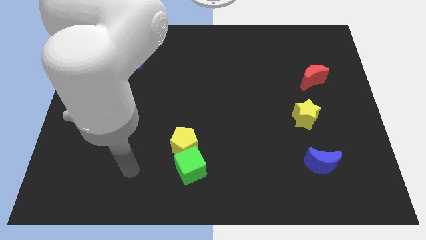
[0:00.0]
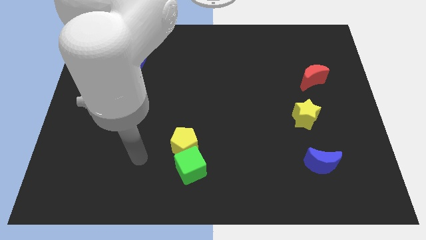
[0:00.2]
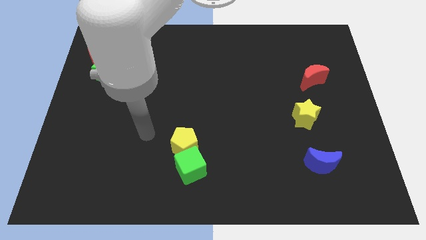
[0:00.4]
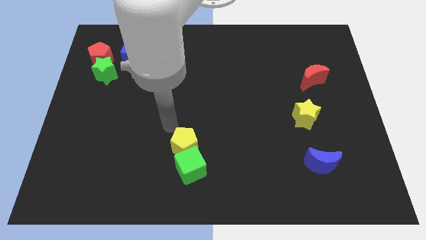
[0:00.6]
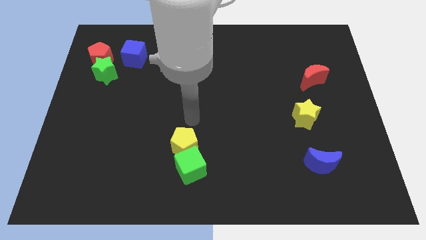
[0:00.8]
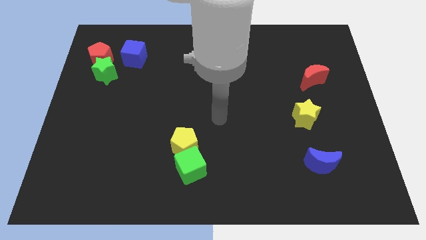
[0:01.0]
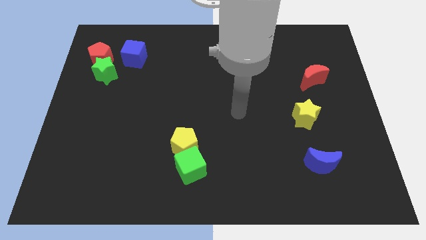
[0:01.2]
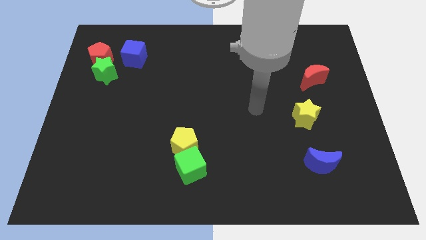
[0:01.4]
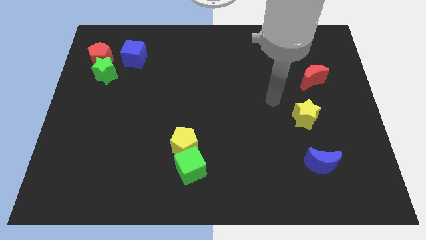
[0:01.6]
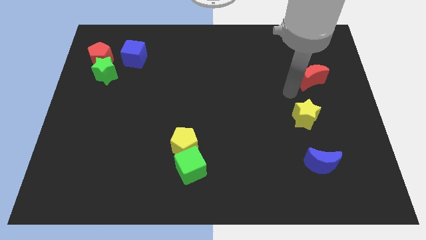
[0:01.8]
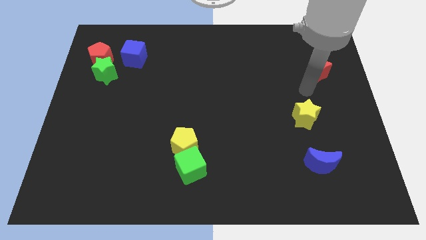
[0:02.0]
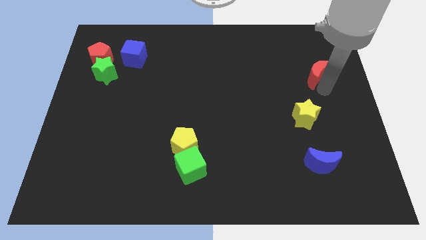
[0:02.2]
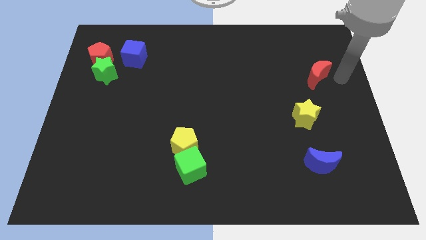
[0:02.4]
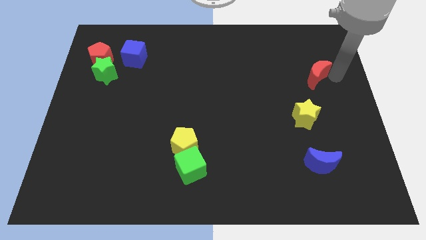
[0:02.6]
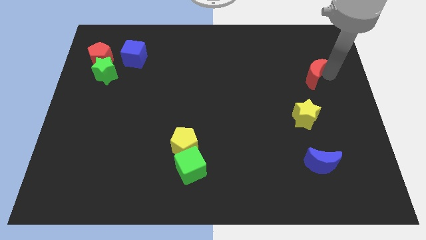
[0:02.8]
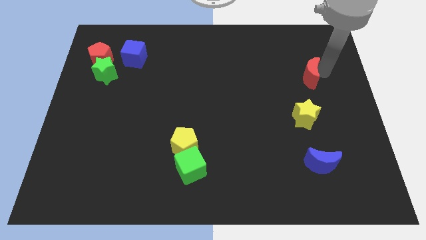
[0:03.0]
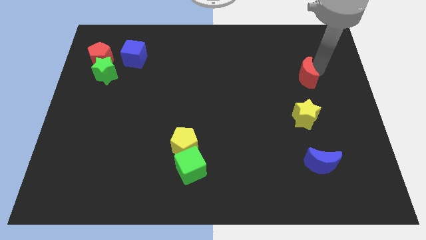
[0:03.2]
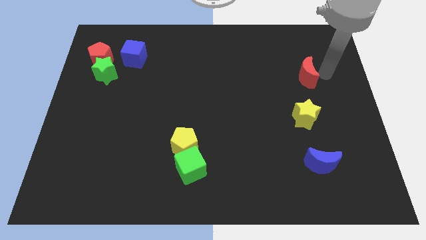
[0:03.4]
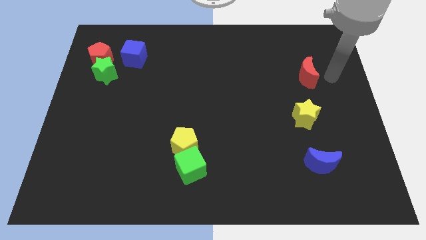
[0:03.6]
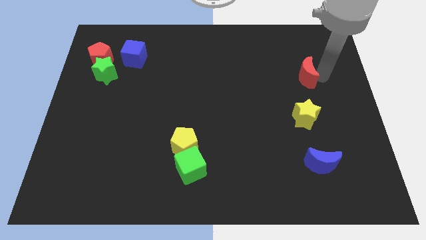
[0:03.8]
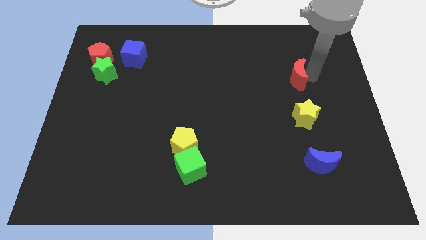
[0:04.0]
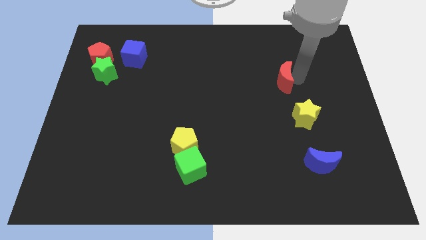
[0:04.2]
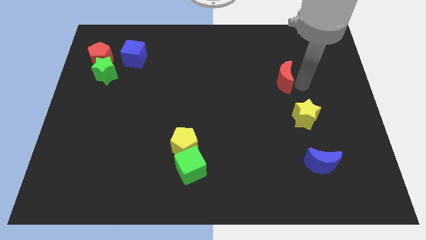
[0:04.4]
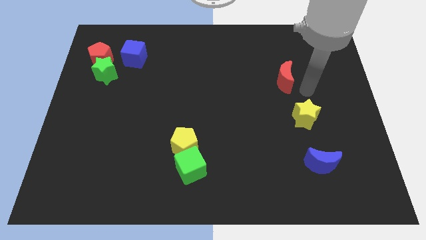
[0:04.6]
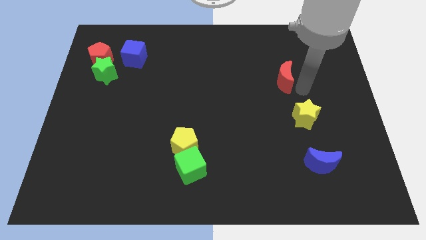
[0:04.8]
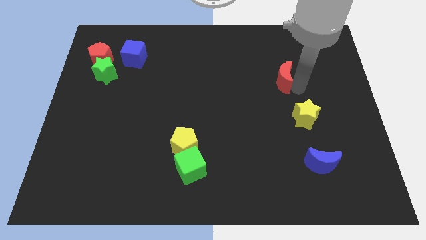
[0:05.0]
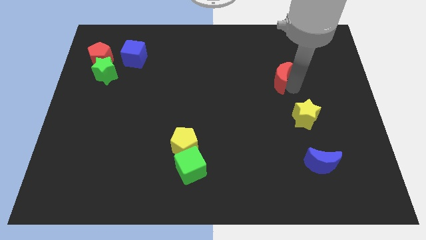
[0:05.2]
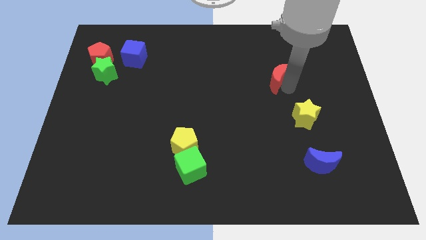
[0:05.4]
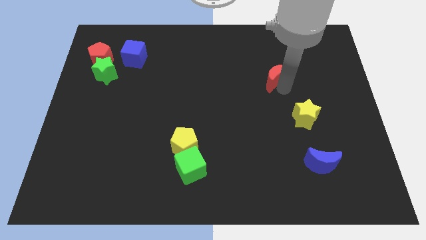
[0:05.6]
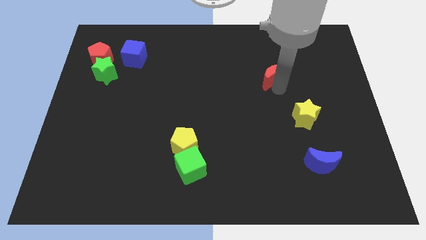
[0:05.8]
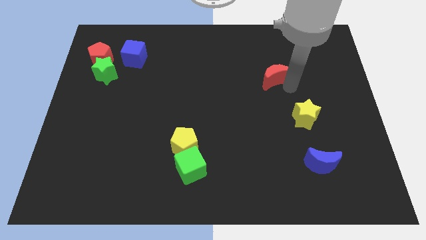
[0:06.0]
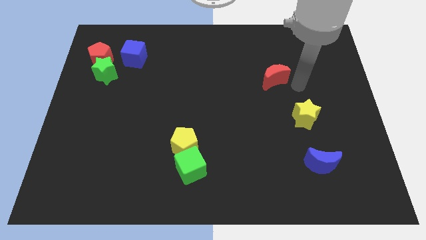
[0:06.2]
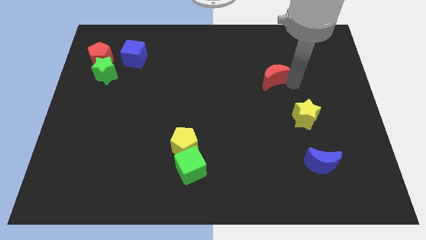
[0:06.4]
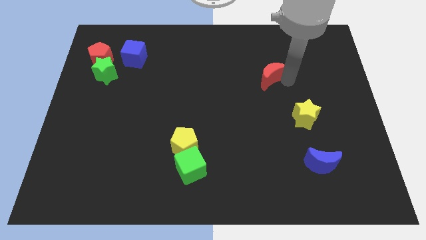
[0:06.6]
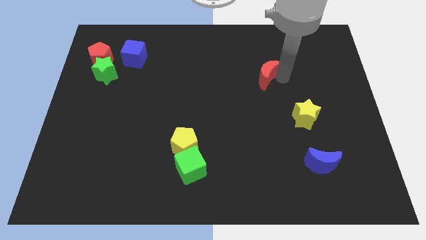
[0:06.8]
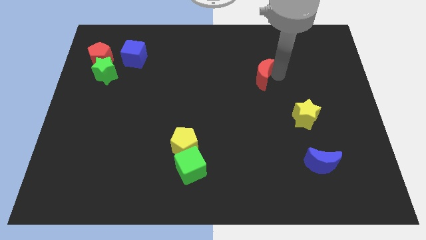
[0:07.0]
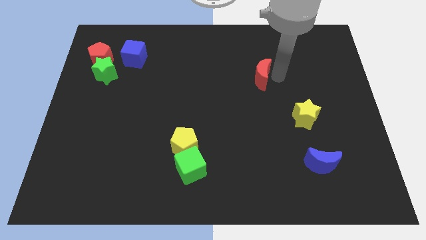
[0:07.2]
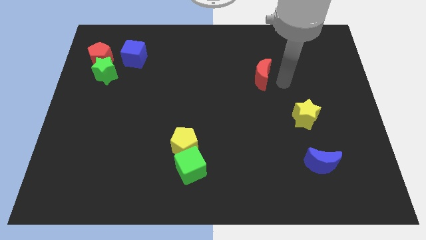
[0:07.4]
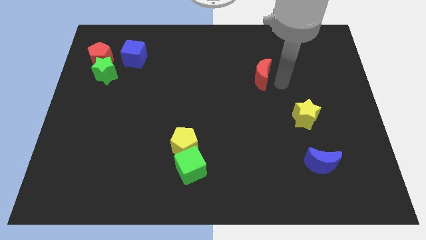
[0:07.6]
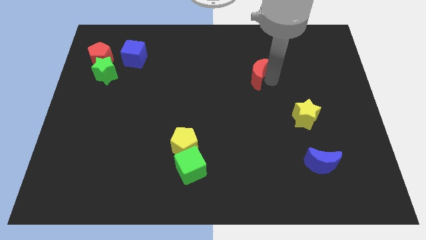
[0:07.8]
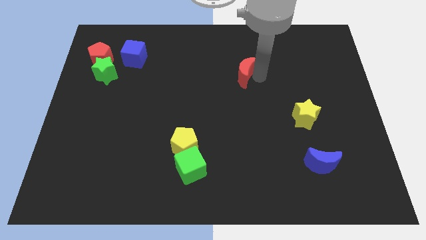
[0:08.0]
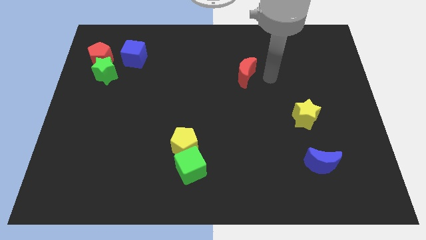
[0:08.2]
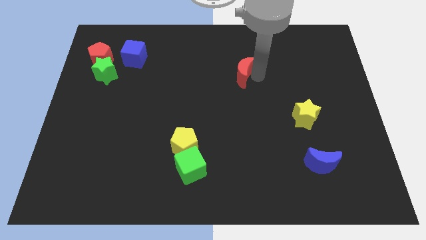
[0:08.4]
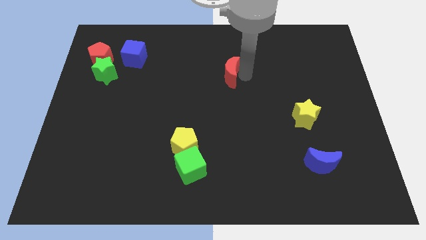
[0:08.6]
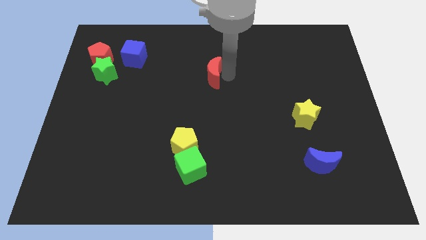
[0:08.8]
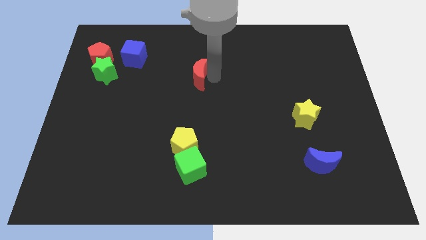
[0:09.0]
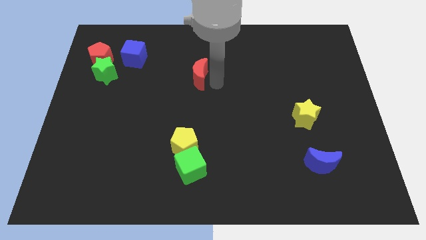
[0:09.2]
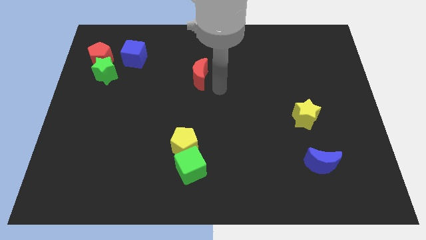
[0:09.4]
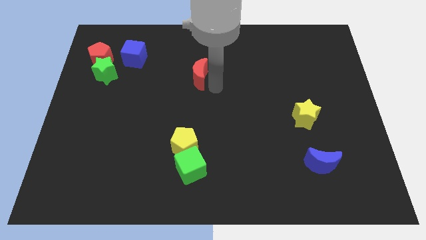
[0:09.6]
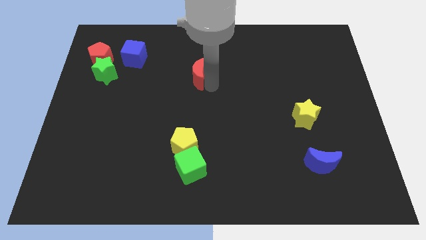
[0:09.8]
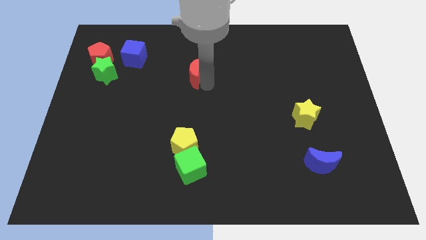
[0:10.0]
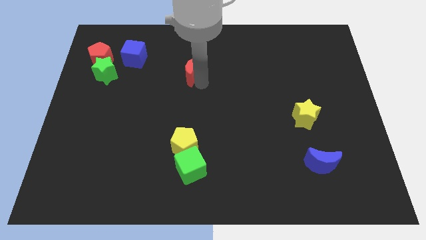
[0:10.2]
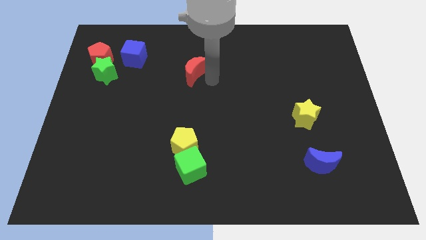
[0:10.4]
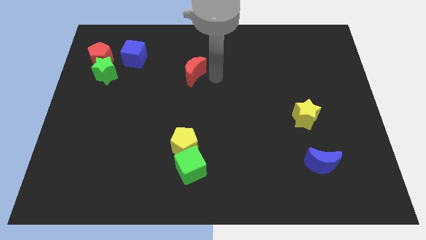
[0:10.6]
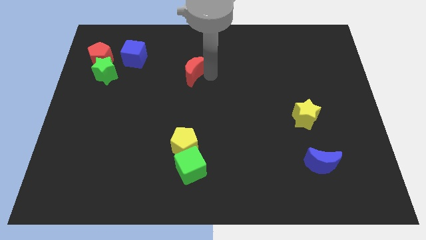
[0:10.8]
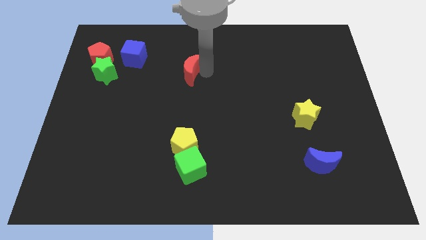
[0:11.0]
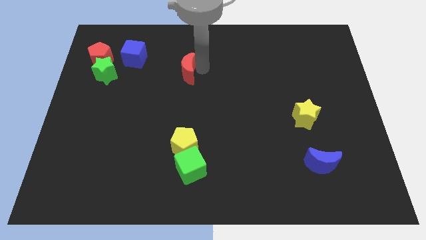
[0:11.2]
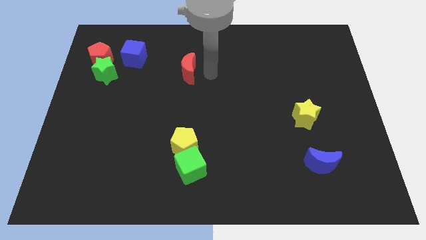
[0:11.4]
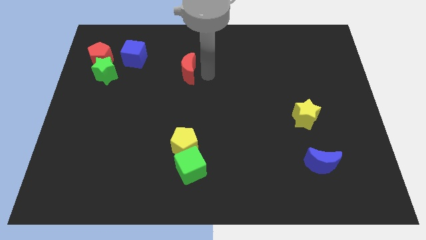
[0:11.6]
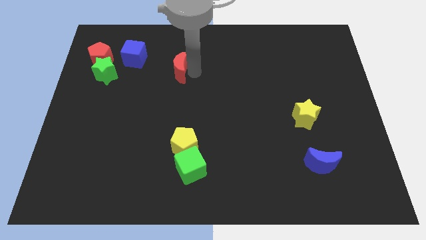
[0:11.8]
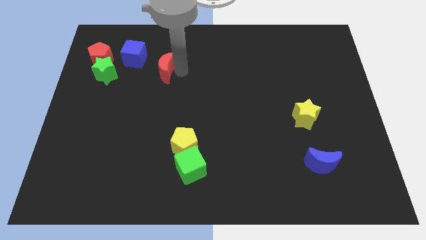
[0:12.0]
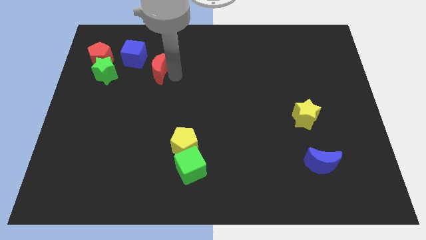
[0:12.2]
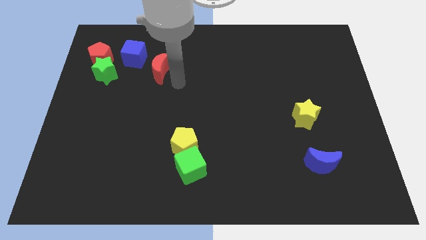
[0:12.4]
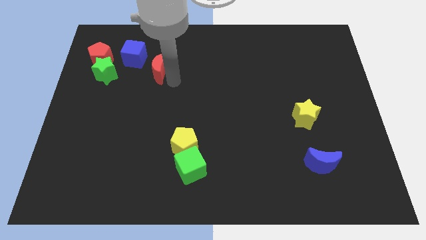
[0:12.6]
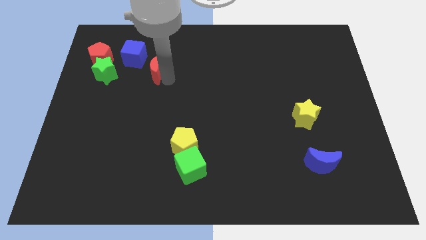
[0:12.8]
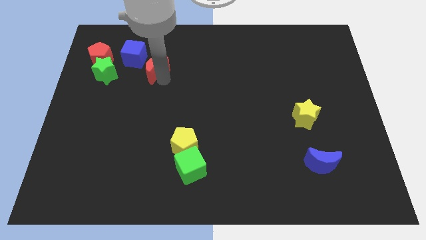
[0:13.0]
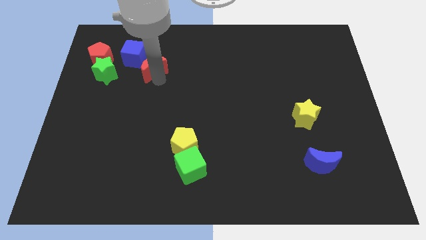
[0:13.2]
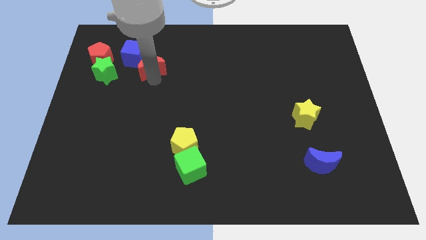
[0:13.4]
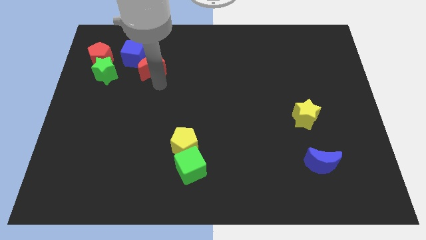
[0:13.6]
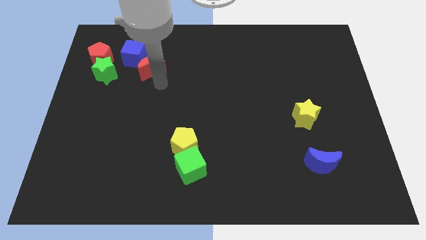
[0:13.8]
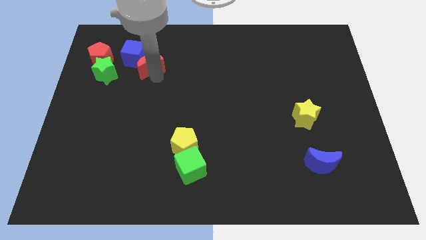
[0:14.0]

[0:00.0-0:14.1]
move the red moon to the blue cube

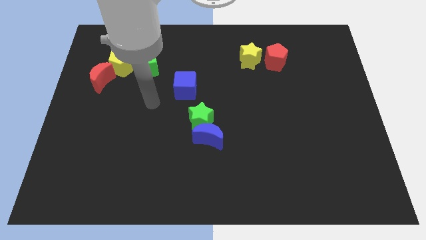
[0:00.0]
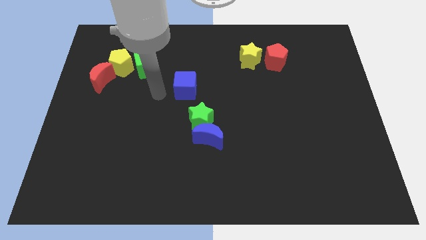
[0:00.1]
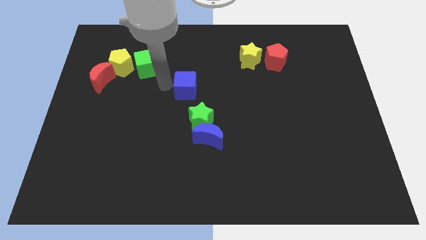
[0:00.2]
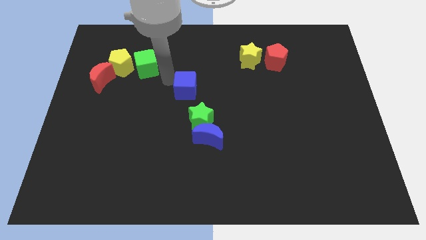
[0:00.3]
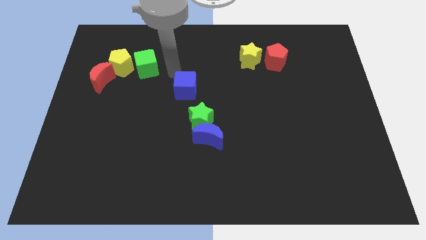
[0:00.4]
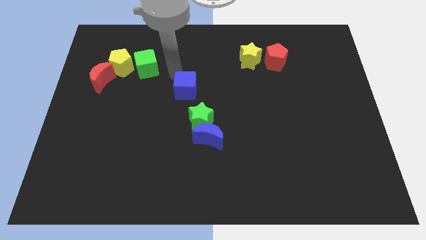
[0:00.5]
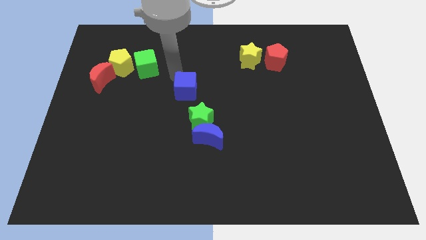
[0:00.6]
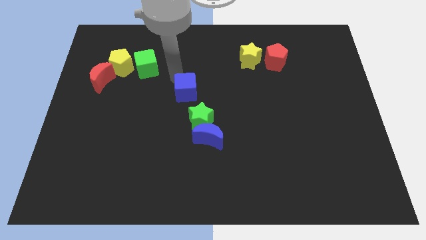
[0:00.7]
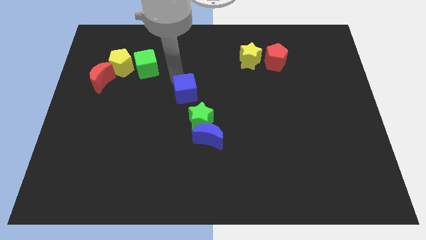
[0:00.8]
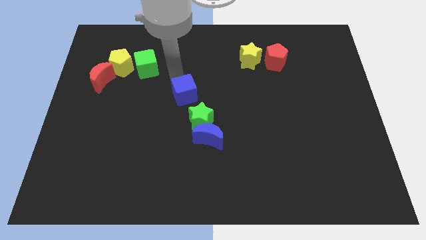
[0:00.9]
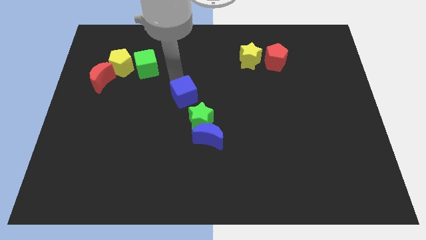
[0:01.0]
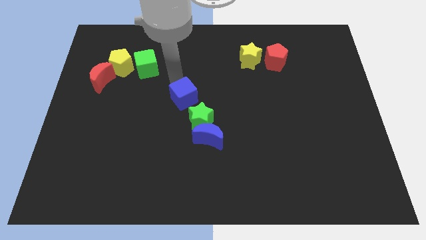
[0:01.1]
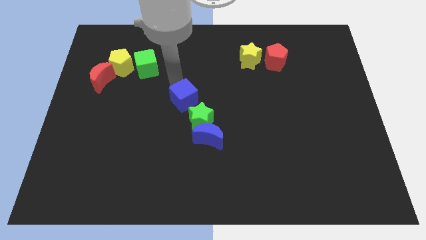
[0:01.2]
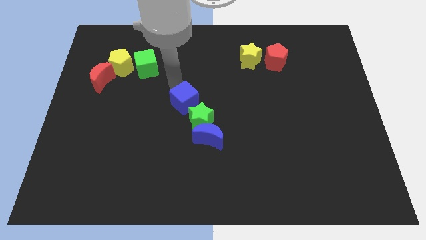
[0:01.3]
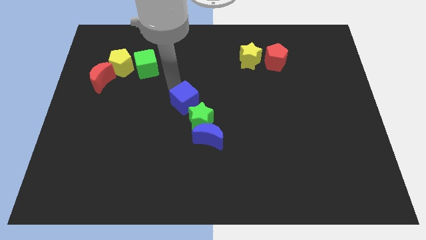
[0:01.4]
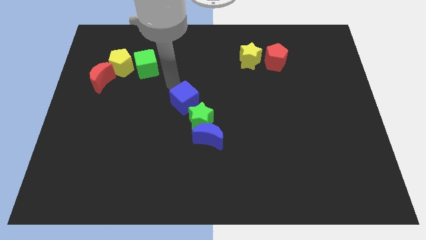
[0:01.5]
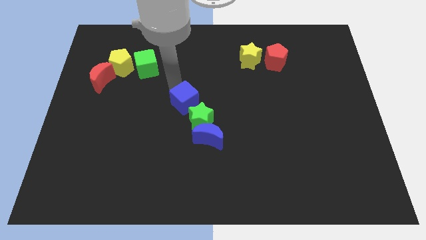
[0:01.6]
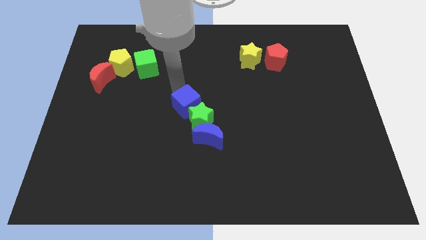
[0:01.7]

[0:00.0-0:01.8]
slide the blue cube next to the green star
